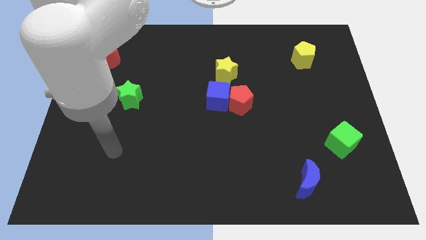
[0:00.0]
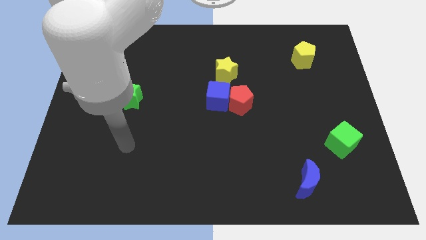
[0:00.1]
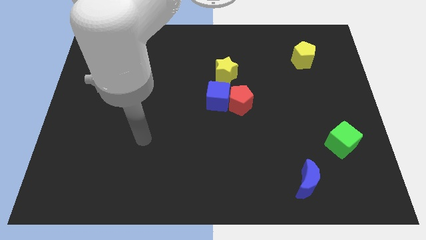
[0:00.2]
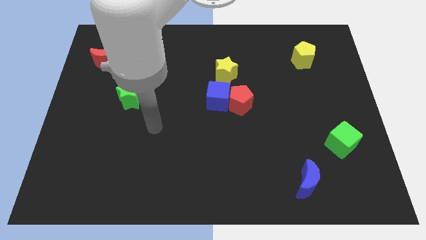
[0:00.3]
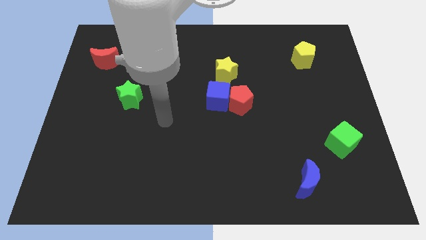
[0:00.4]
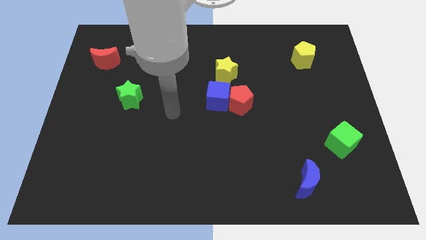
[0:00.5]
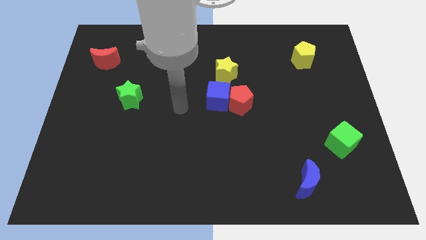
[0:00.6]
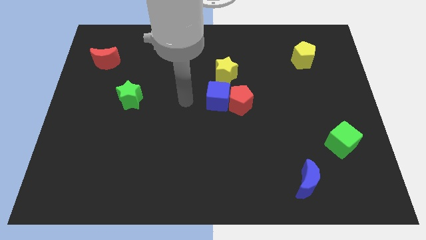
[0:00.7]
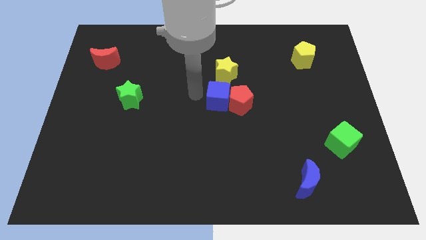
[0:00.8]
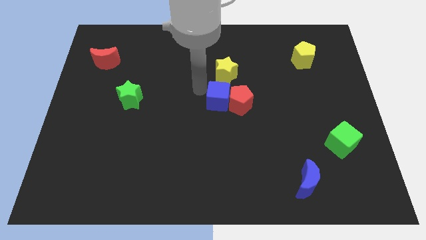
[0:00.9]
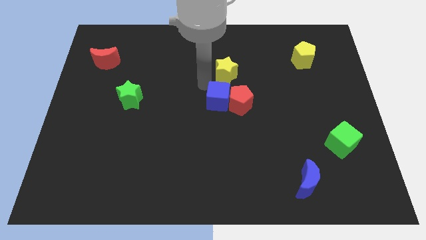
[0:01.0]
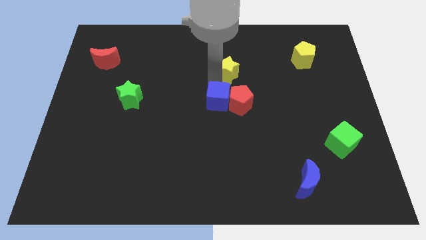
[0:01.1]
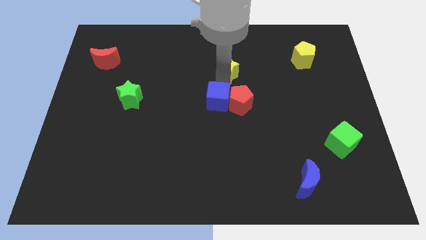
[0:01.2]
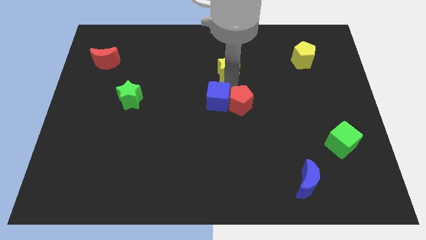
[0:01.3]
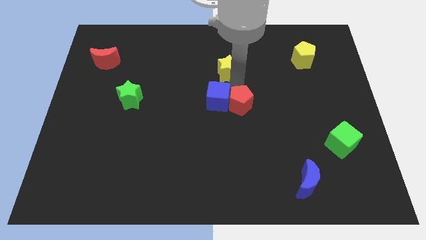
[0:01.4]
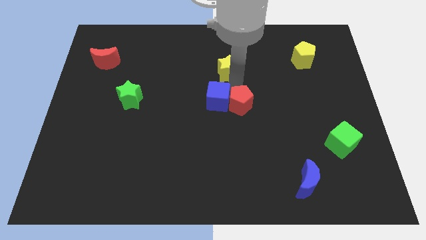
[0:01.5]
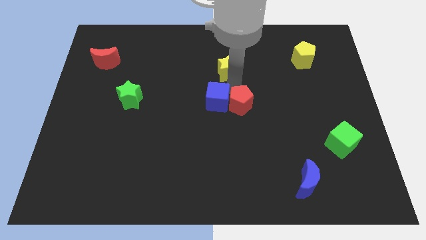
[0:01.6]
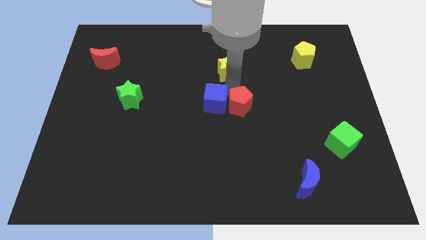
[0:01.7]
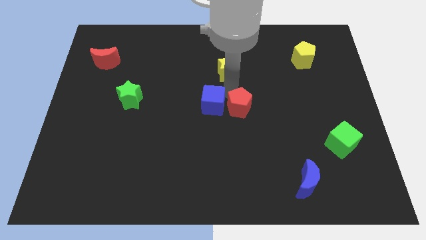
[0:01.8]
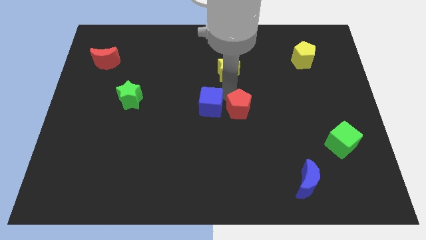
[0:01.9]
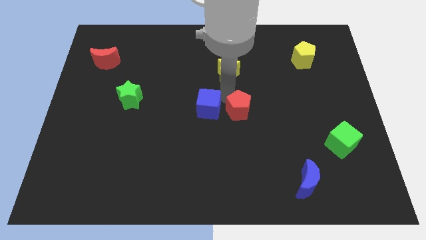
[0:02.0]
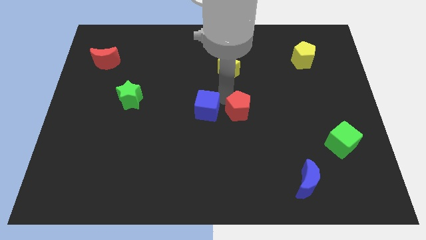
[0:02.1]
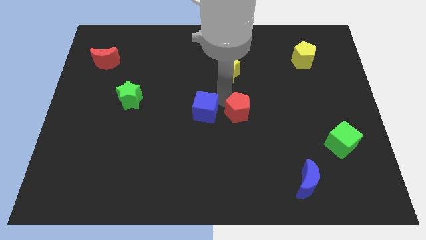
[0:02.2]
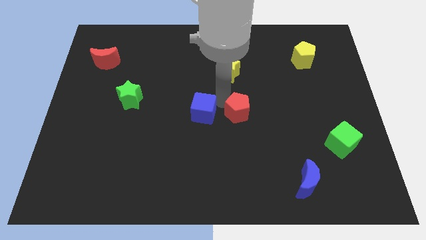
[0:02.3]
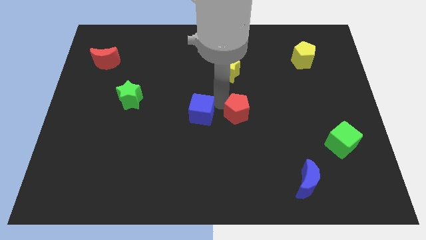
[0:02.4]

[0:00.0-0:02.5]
move the blue cube away from the red pentagon and yellow star

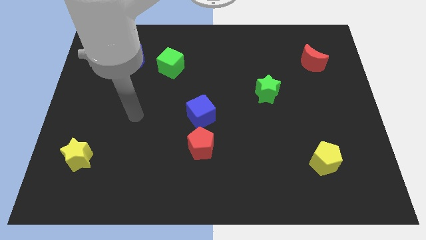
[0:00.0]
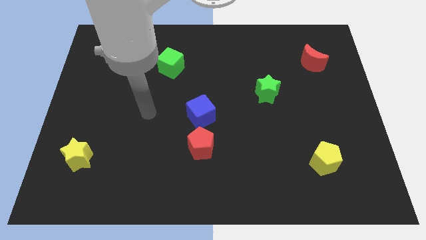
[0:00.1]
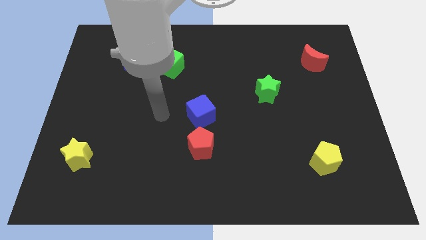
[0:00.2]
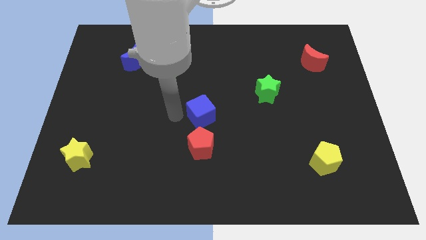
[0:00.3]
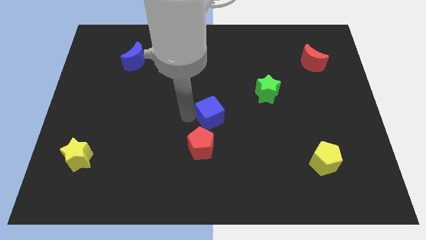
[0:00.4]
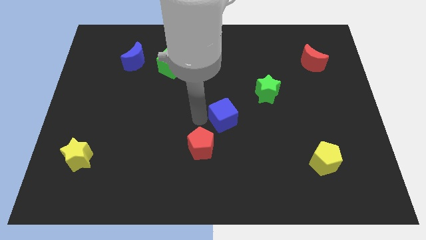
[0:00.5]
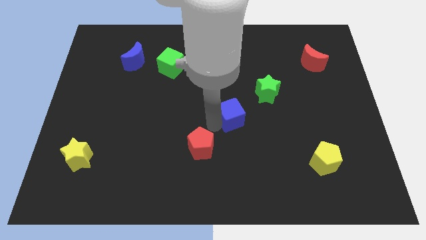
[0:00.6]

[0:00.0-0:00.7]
move the red pentagon away from the blue cube

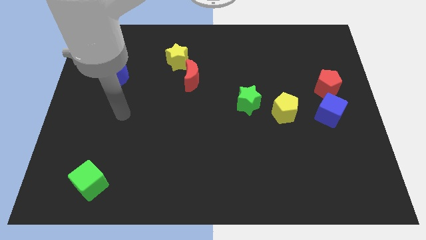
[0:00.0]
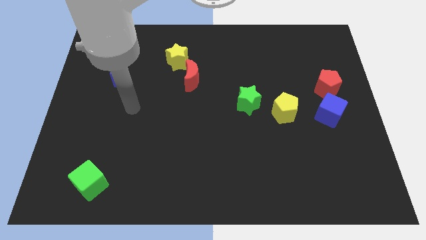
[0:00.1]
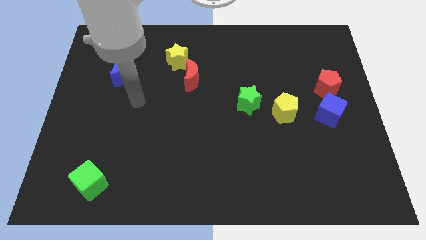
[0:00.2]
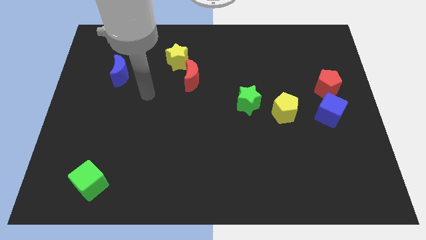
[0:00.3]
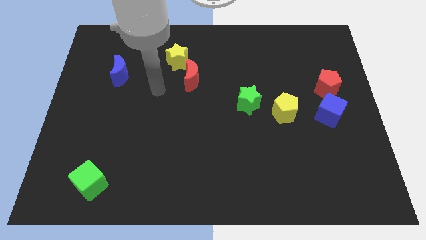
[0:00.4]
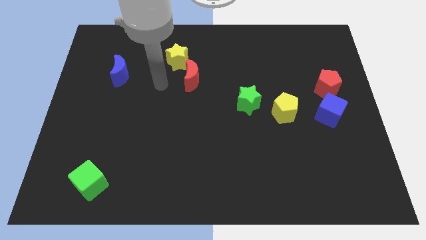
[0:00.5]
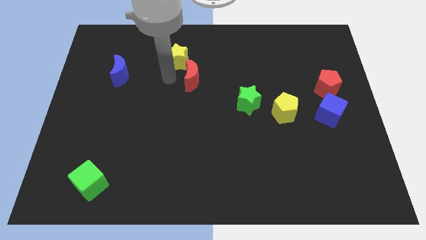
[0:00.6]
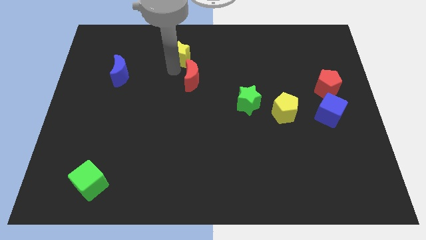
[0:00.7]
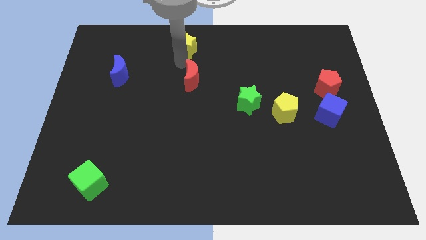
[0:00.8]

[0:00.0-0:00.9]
pull the red moon apart from the yellow star

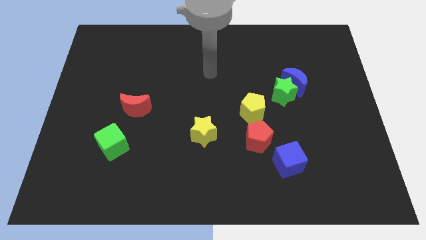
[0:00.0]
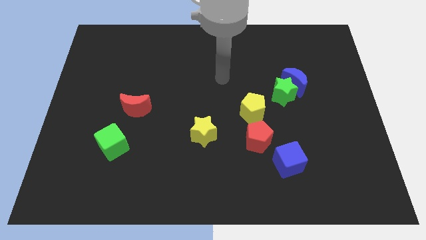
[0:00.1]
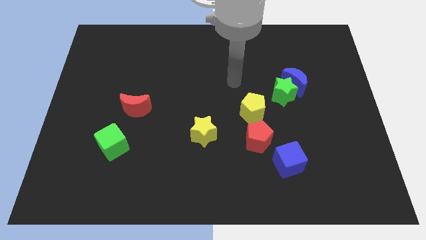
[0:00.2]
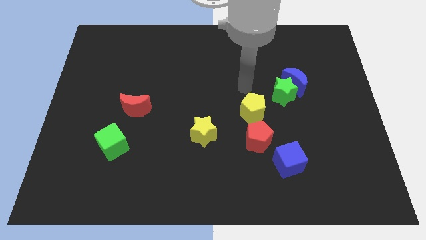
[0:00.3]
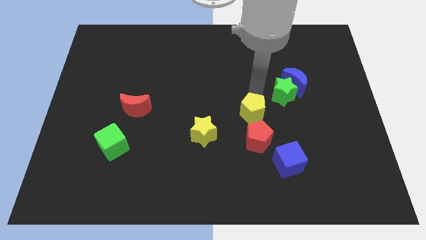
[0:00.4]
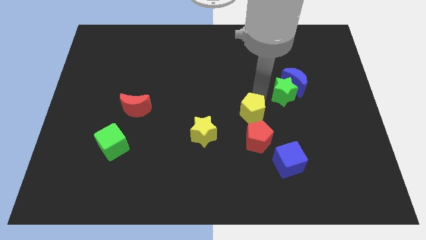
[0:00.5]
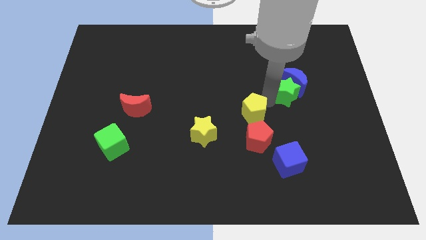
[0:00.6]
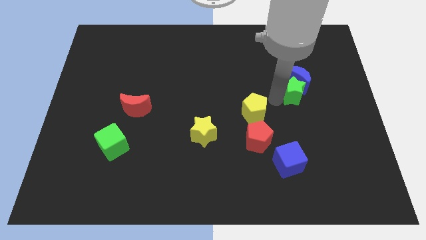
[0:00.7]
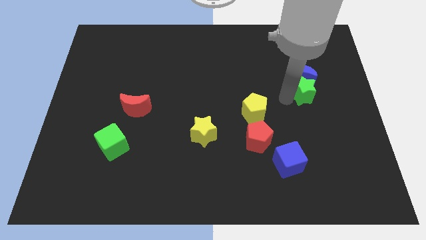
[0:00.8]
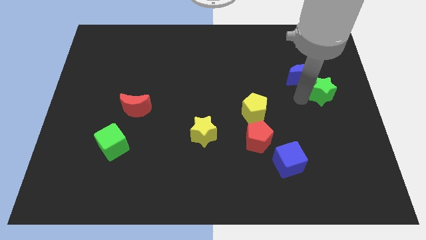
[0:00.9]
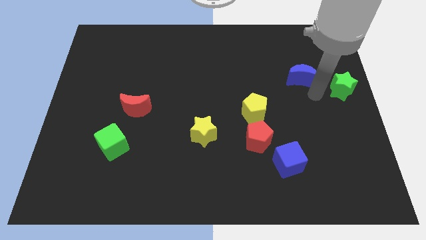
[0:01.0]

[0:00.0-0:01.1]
separate the blue moon from the green star

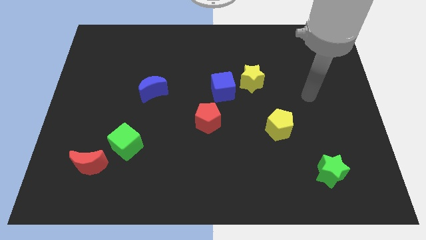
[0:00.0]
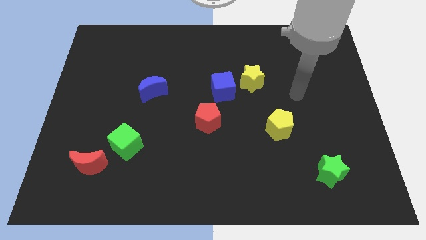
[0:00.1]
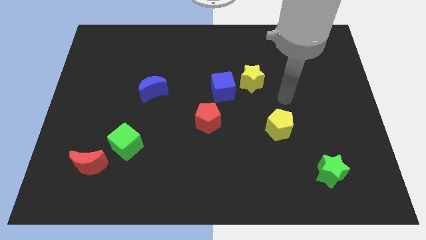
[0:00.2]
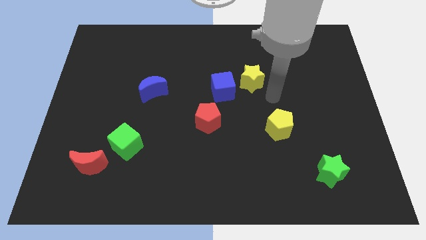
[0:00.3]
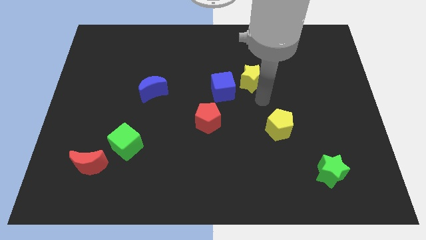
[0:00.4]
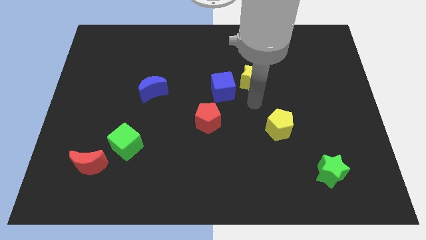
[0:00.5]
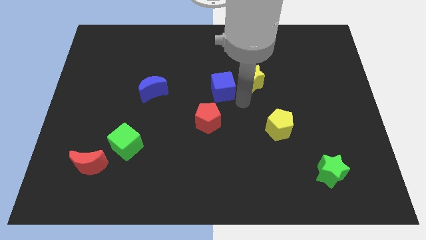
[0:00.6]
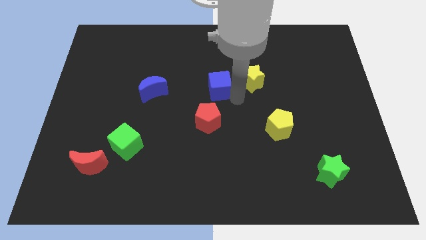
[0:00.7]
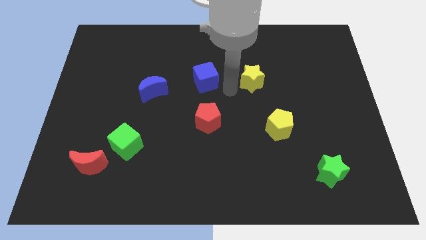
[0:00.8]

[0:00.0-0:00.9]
separate the yellow star from the blue cube

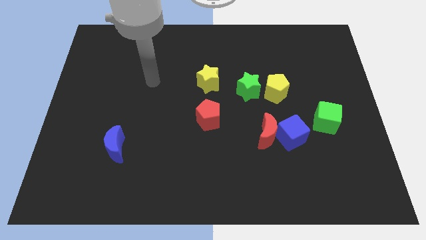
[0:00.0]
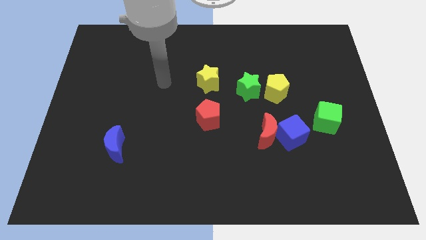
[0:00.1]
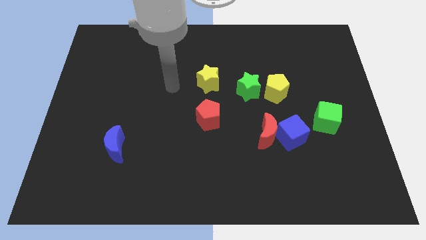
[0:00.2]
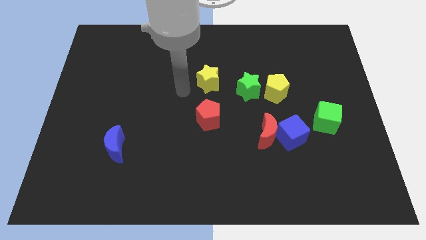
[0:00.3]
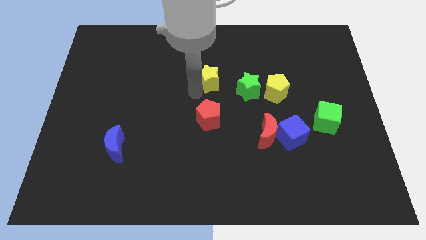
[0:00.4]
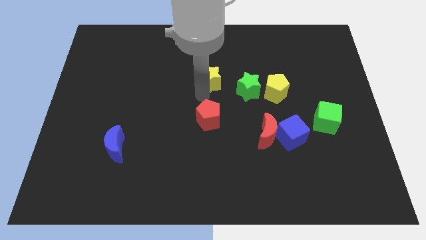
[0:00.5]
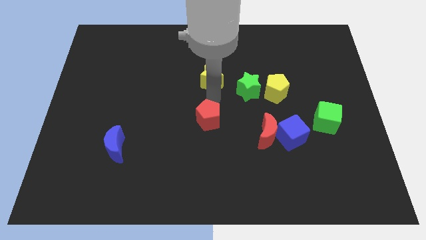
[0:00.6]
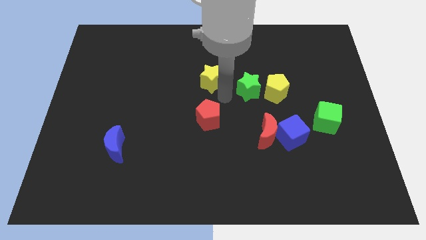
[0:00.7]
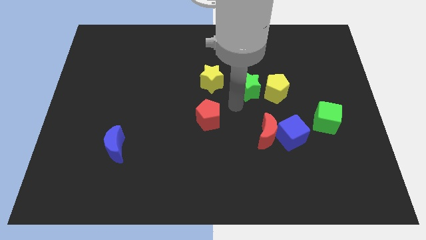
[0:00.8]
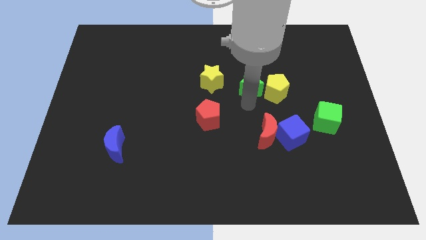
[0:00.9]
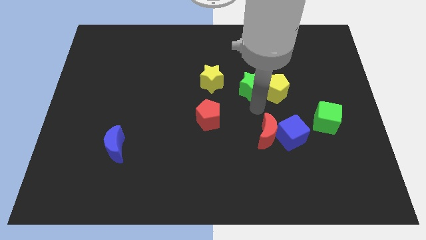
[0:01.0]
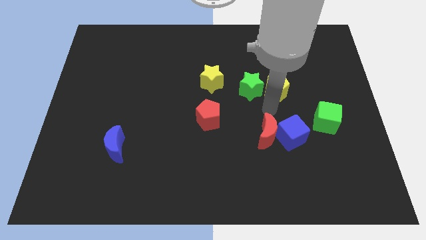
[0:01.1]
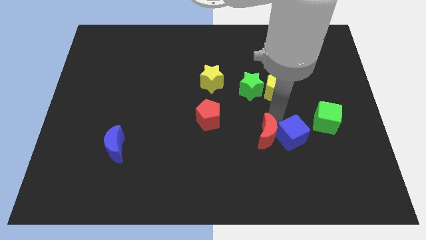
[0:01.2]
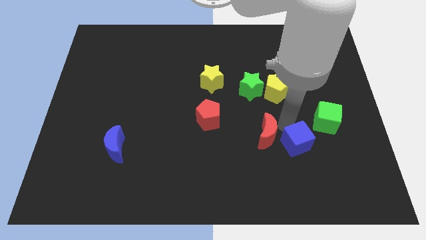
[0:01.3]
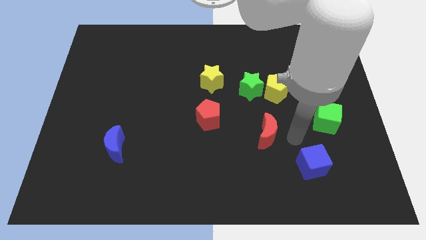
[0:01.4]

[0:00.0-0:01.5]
separate the red moon from the blue cube

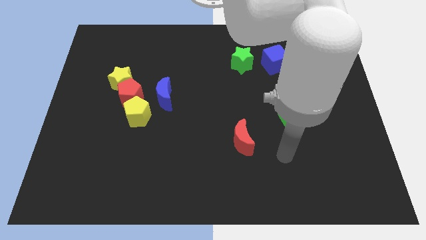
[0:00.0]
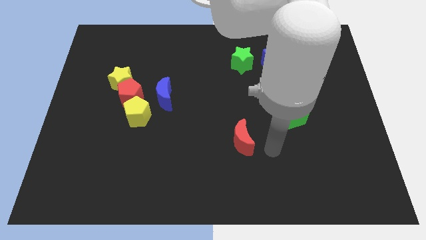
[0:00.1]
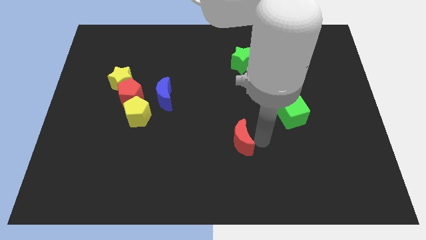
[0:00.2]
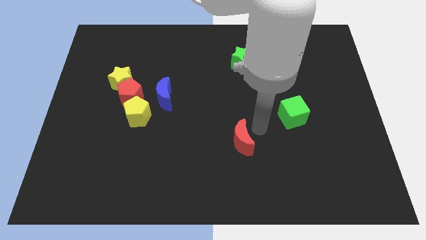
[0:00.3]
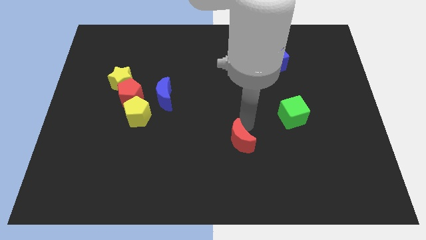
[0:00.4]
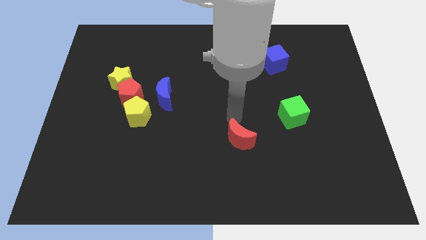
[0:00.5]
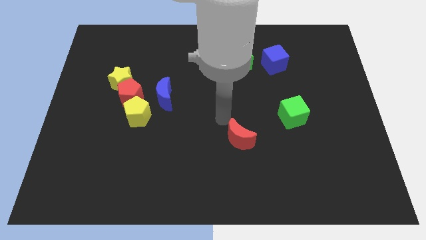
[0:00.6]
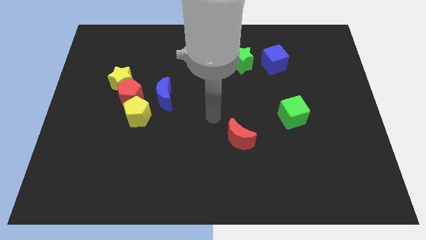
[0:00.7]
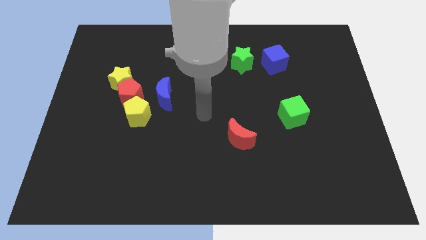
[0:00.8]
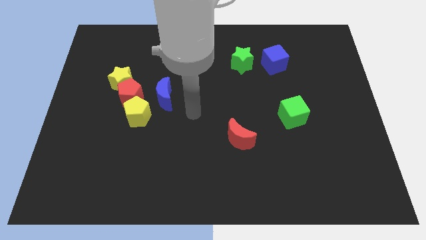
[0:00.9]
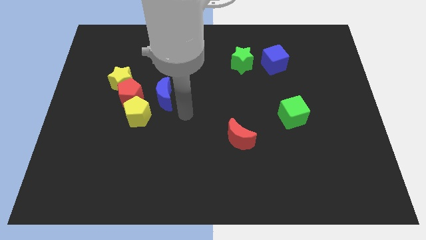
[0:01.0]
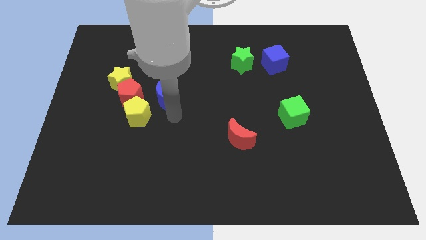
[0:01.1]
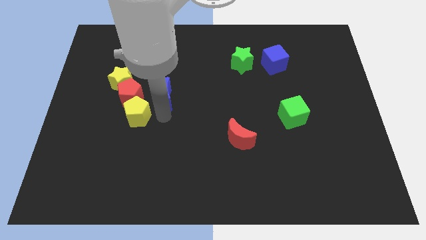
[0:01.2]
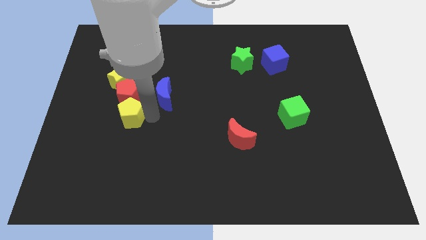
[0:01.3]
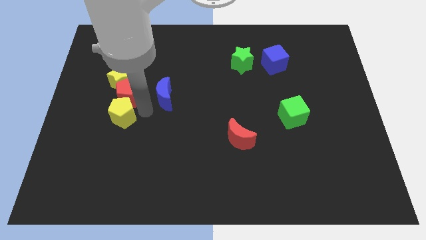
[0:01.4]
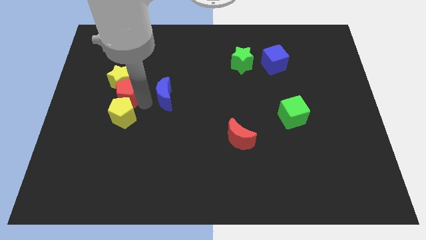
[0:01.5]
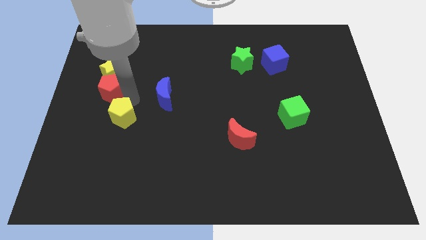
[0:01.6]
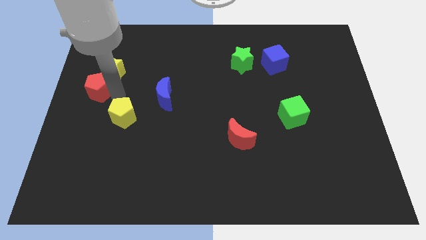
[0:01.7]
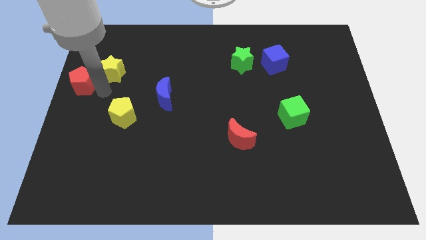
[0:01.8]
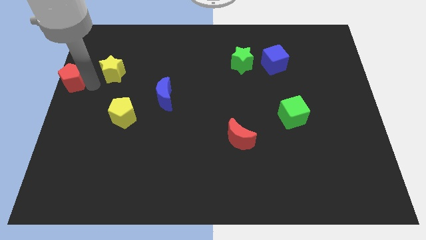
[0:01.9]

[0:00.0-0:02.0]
separate the yellow star from the red pentagon
